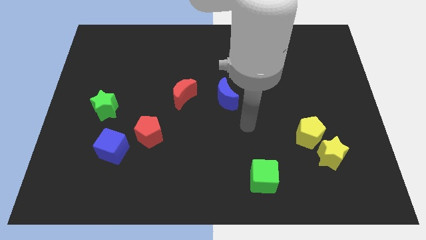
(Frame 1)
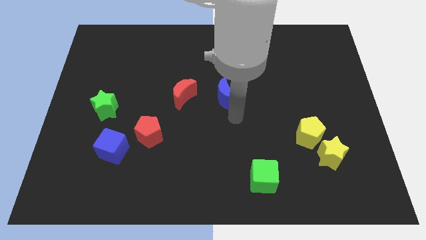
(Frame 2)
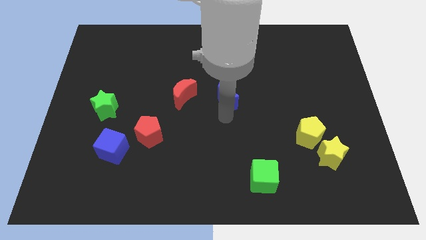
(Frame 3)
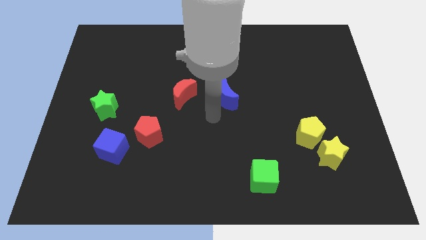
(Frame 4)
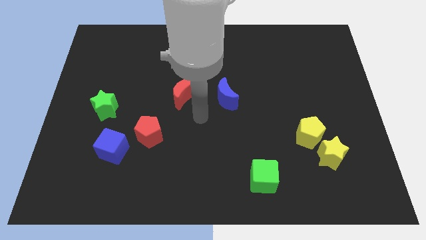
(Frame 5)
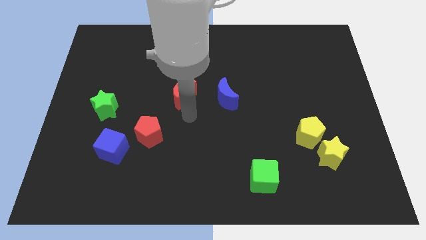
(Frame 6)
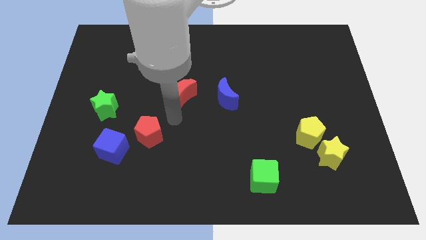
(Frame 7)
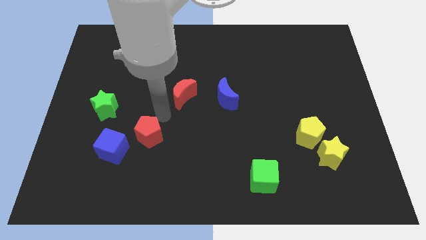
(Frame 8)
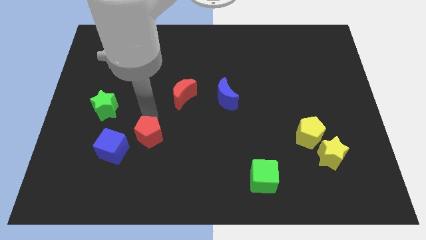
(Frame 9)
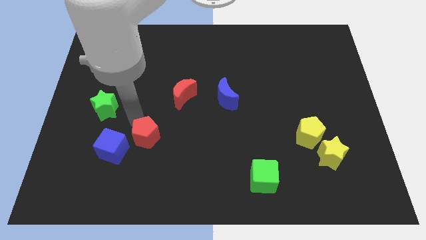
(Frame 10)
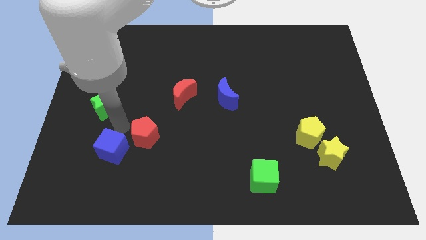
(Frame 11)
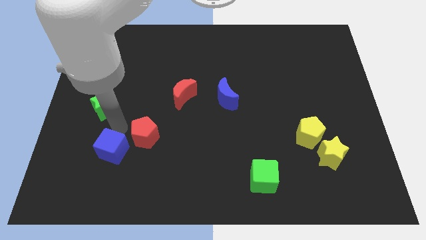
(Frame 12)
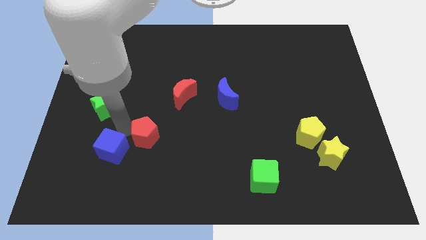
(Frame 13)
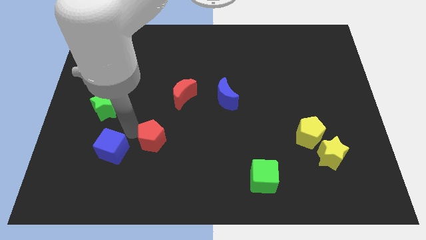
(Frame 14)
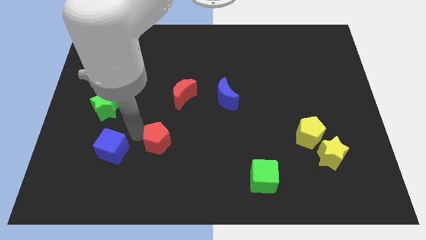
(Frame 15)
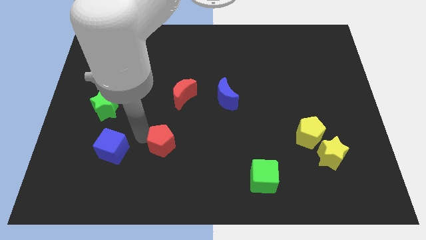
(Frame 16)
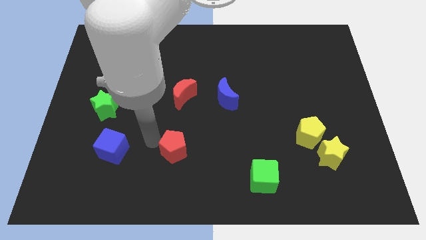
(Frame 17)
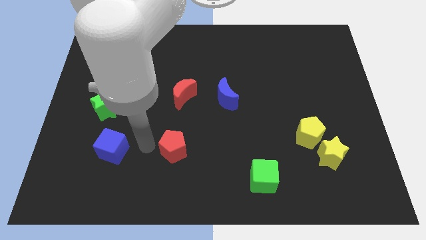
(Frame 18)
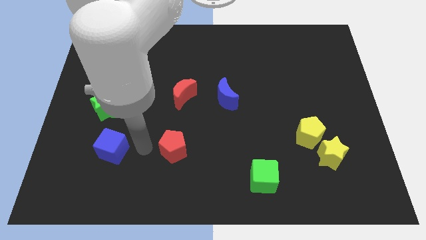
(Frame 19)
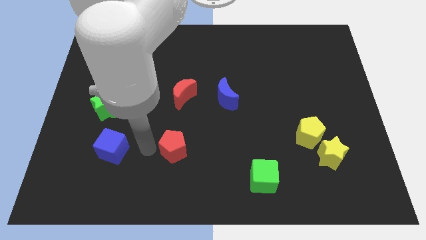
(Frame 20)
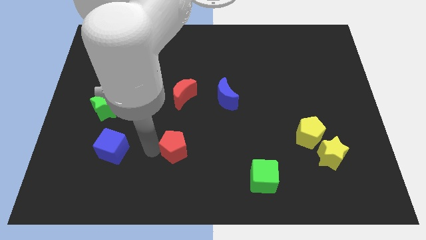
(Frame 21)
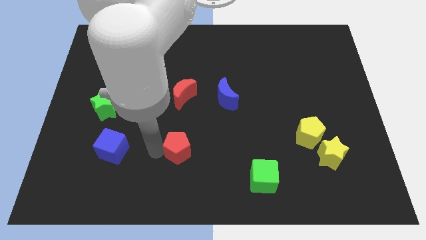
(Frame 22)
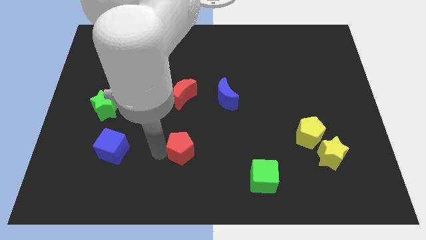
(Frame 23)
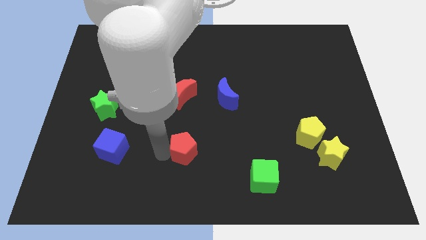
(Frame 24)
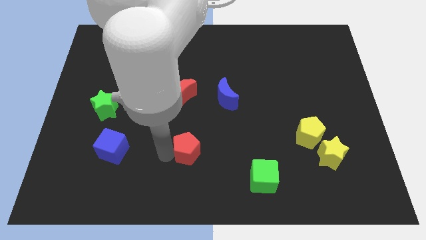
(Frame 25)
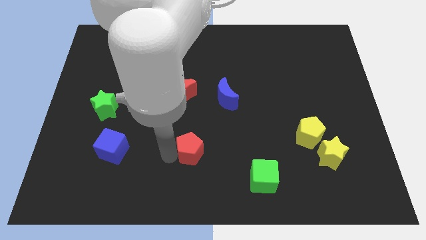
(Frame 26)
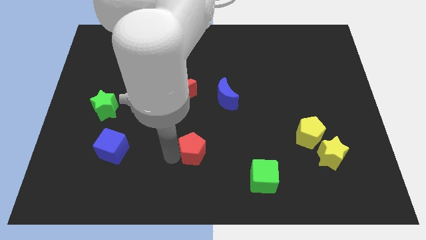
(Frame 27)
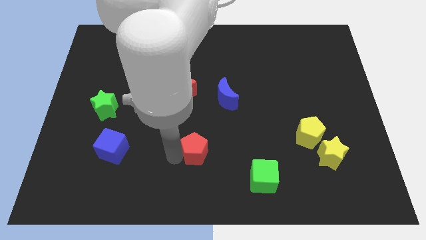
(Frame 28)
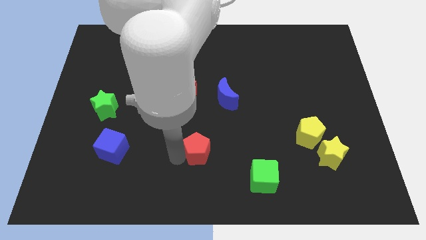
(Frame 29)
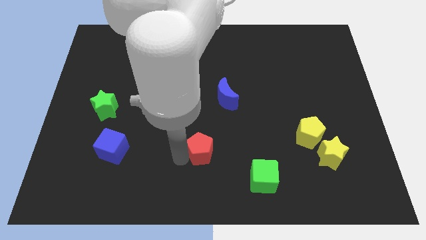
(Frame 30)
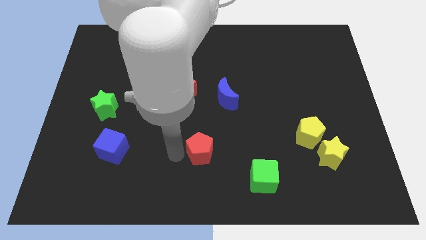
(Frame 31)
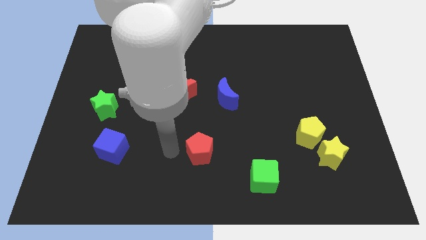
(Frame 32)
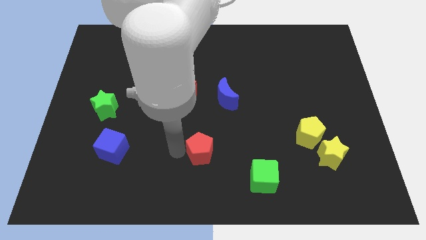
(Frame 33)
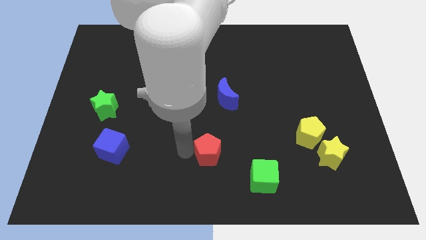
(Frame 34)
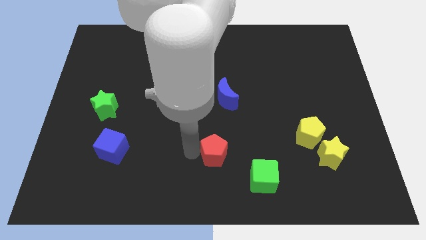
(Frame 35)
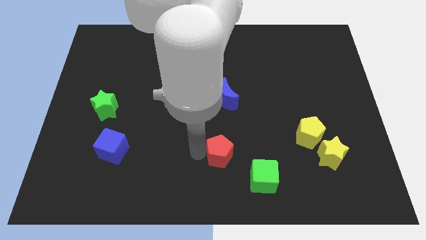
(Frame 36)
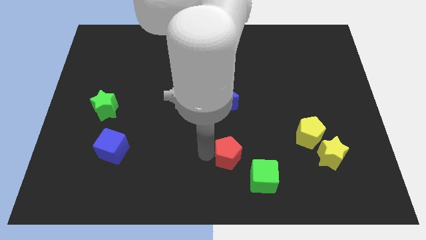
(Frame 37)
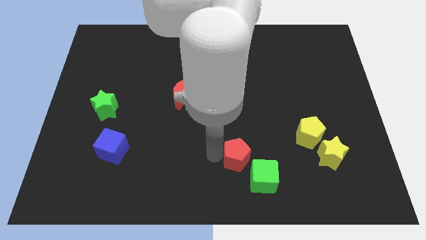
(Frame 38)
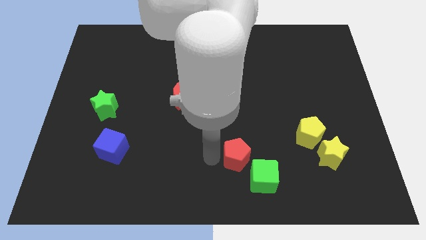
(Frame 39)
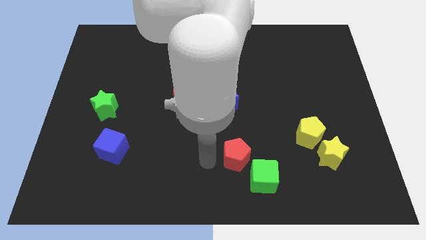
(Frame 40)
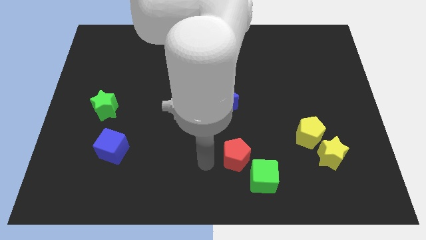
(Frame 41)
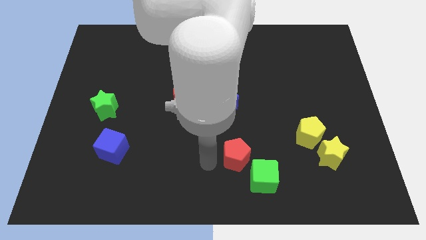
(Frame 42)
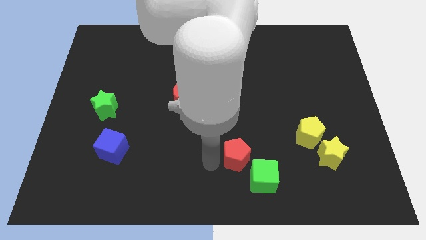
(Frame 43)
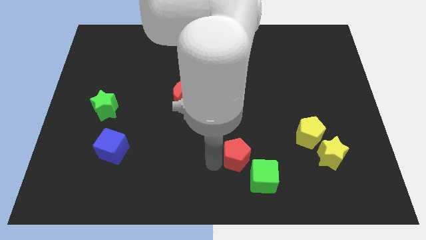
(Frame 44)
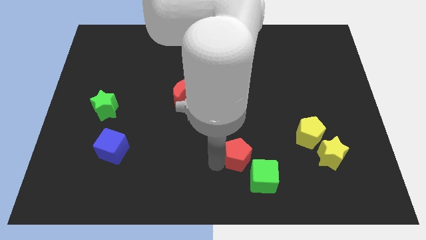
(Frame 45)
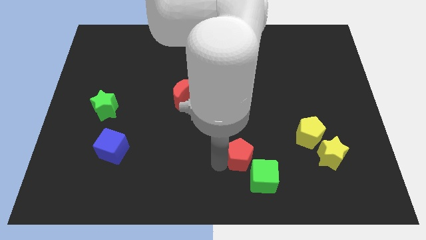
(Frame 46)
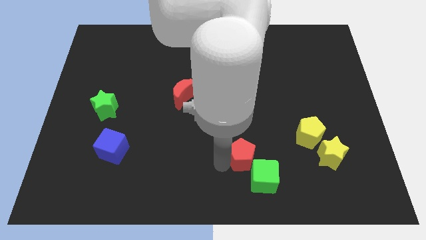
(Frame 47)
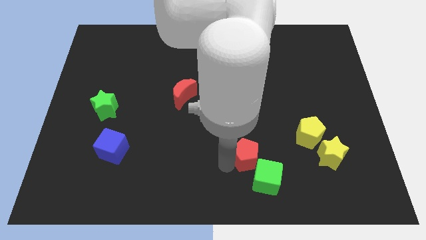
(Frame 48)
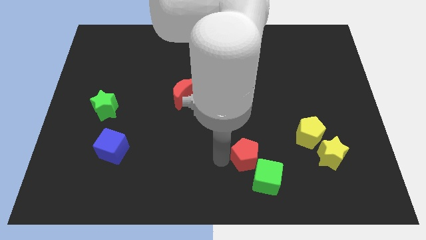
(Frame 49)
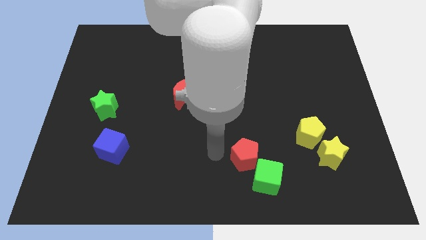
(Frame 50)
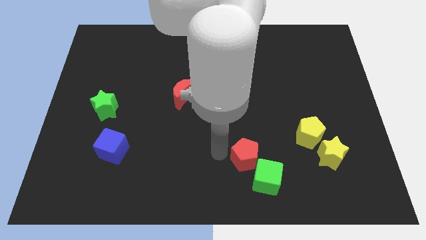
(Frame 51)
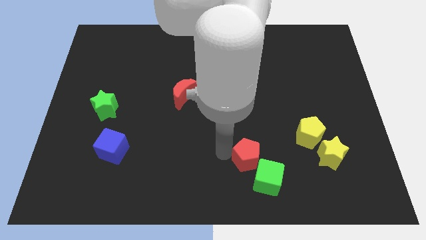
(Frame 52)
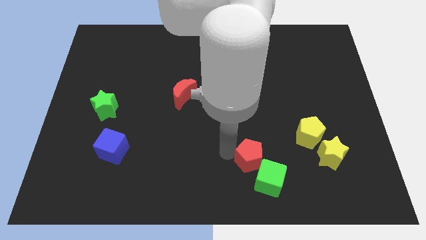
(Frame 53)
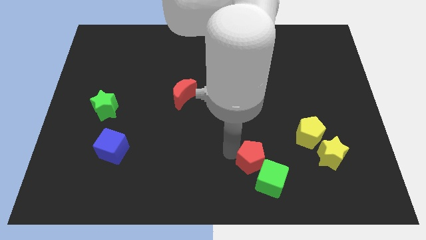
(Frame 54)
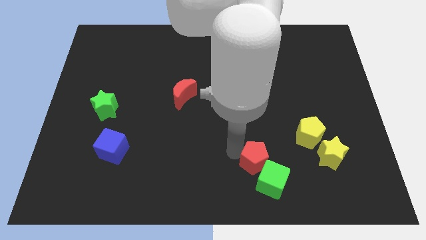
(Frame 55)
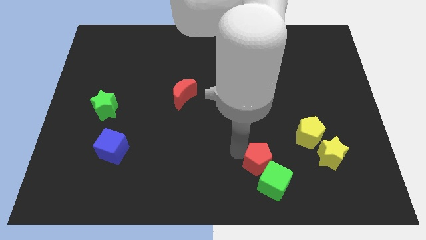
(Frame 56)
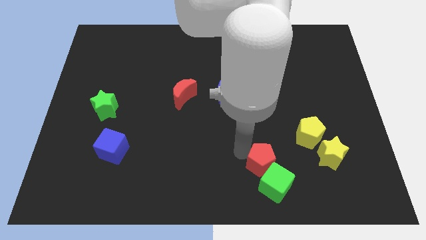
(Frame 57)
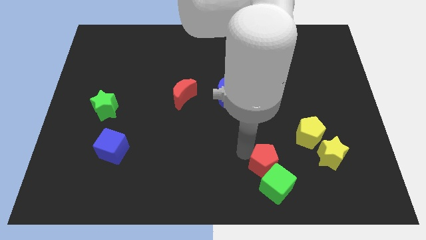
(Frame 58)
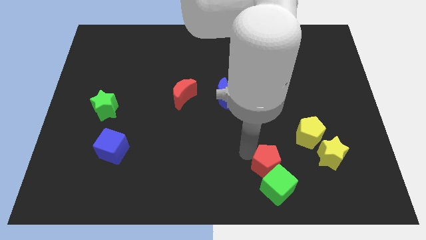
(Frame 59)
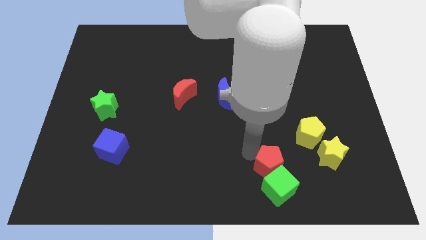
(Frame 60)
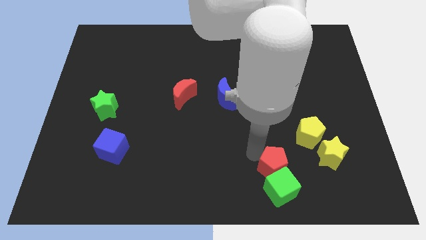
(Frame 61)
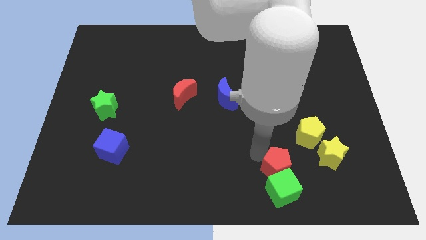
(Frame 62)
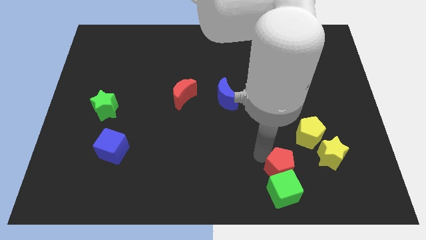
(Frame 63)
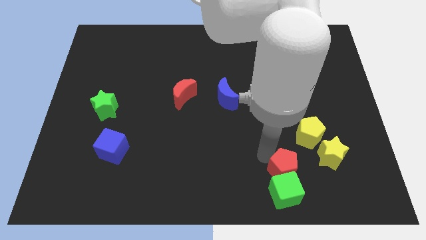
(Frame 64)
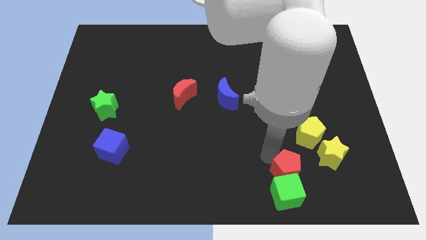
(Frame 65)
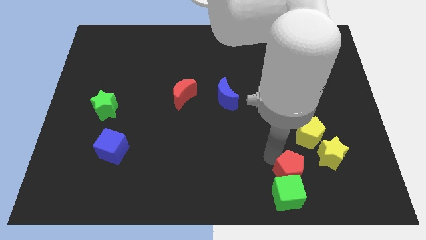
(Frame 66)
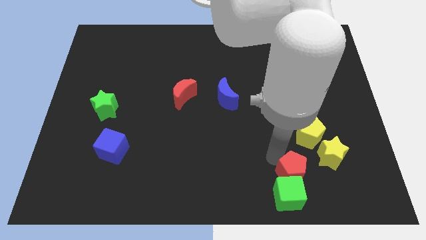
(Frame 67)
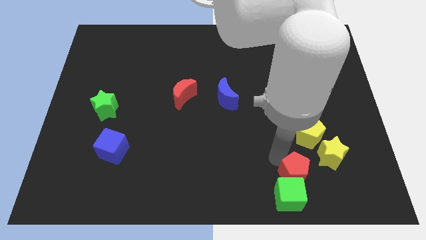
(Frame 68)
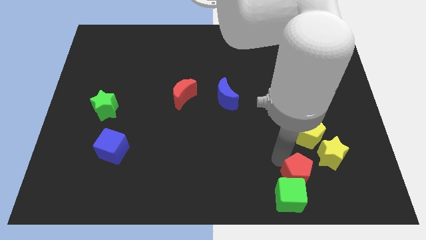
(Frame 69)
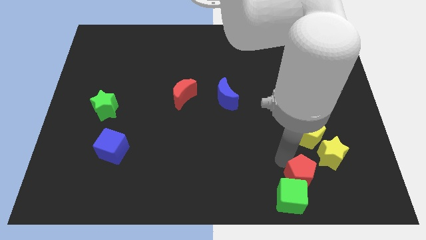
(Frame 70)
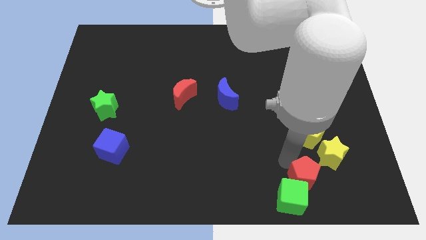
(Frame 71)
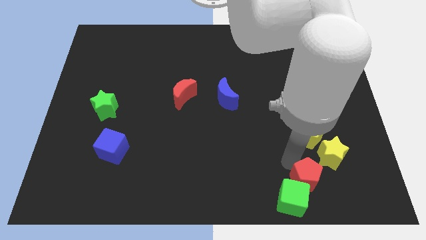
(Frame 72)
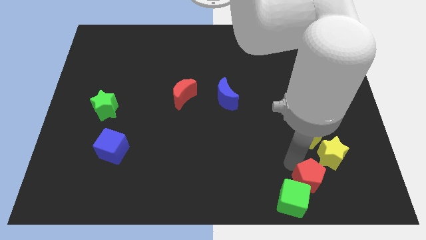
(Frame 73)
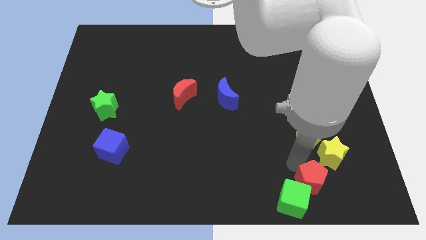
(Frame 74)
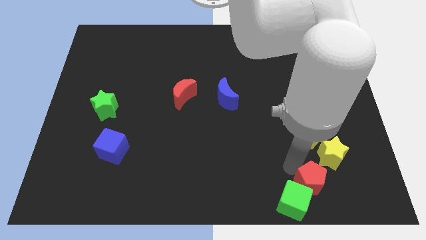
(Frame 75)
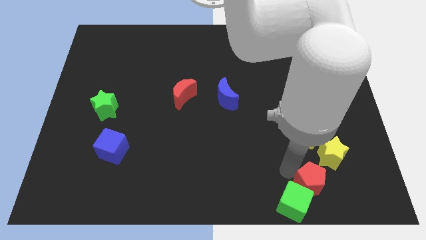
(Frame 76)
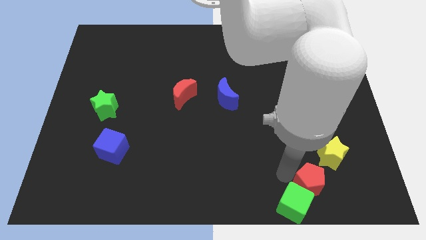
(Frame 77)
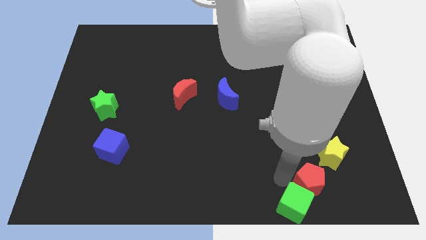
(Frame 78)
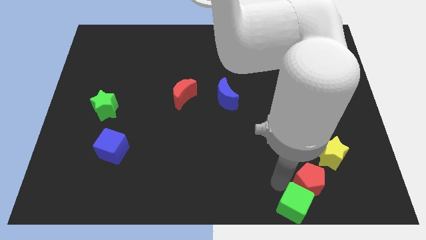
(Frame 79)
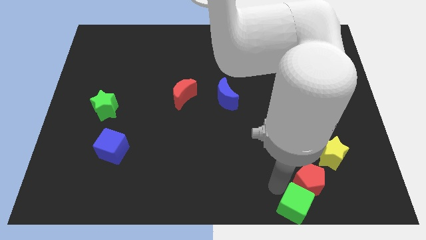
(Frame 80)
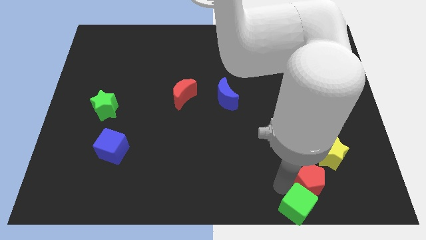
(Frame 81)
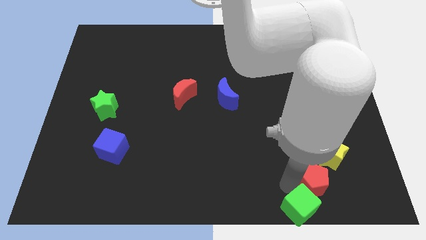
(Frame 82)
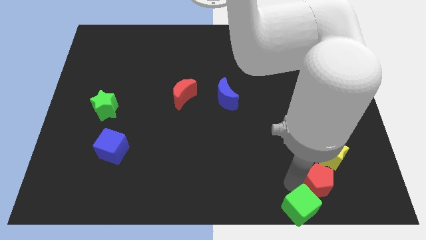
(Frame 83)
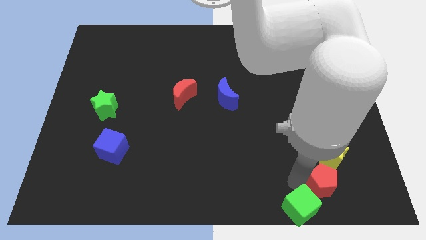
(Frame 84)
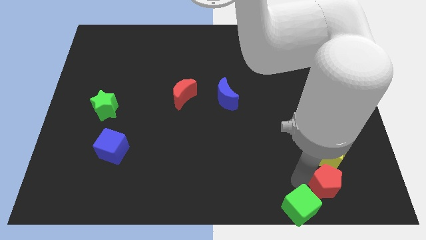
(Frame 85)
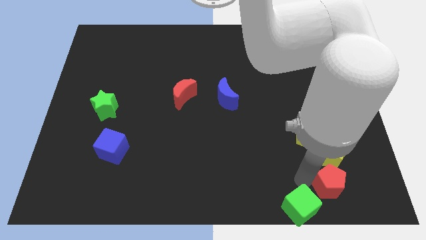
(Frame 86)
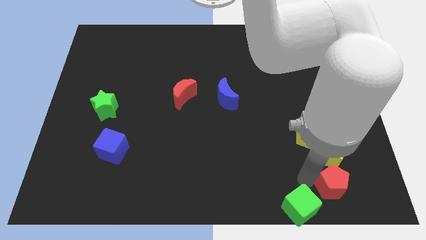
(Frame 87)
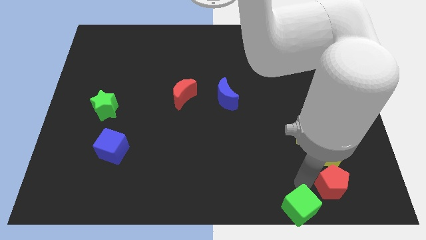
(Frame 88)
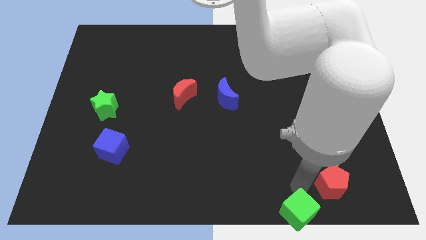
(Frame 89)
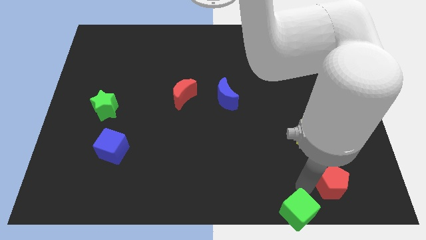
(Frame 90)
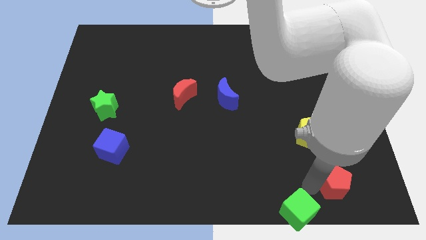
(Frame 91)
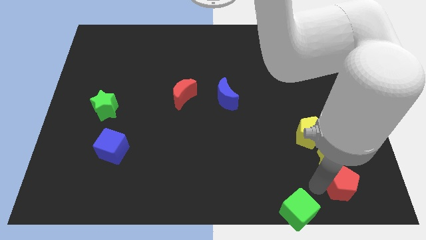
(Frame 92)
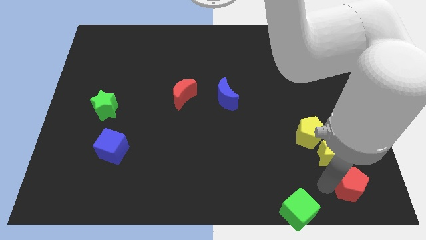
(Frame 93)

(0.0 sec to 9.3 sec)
put the red pentagon to the bottom right
